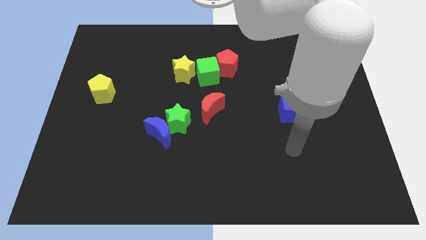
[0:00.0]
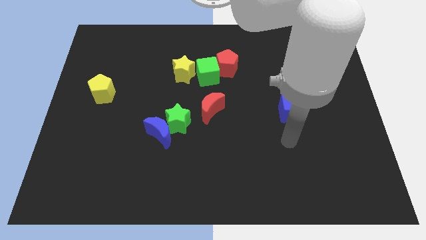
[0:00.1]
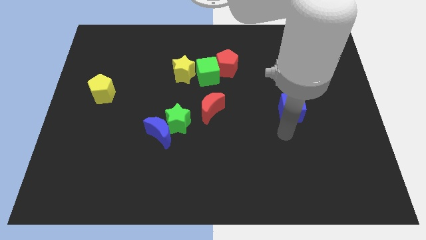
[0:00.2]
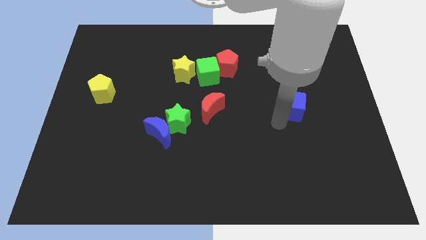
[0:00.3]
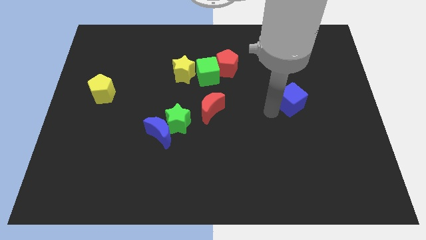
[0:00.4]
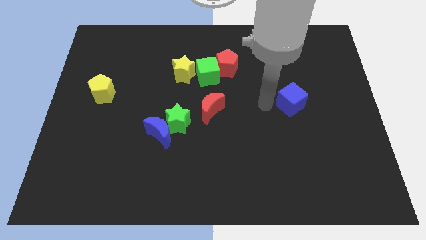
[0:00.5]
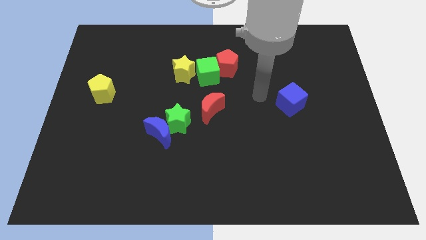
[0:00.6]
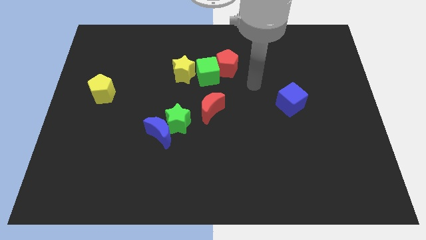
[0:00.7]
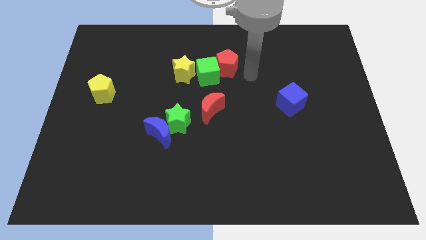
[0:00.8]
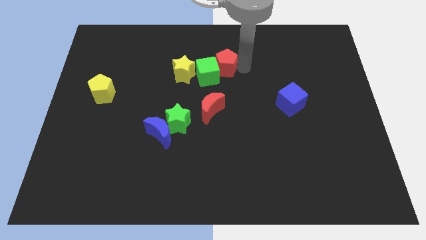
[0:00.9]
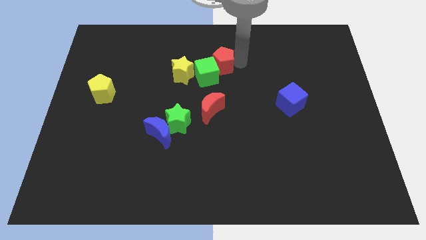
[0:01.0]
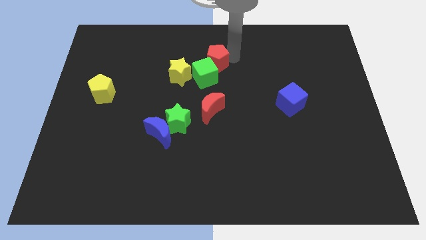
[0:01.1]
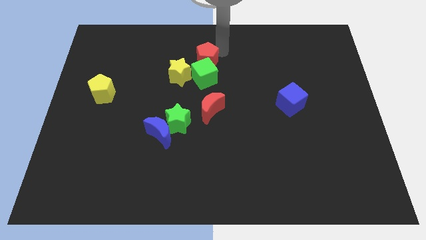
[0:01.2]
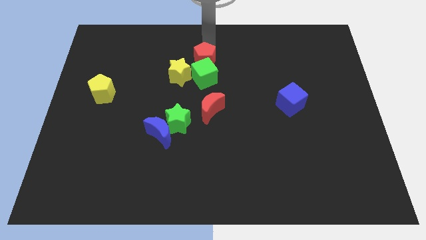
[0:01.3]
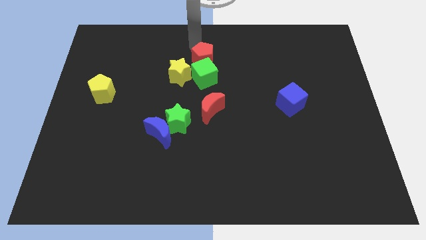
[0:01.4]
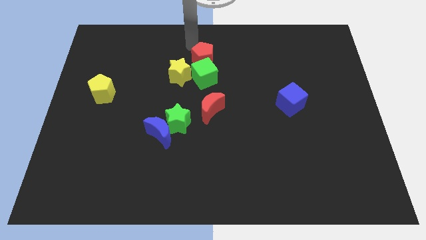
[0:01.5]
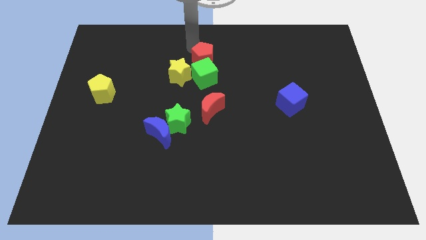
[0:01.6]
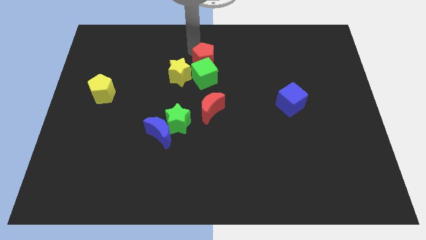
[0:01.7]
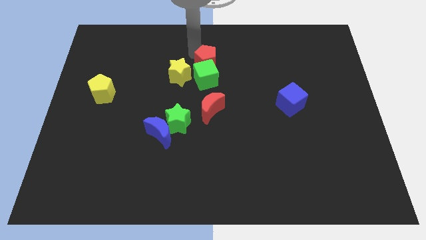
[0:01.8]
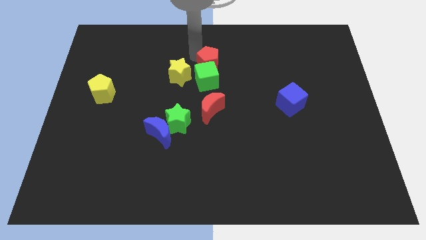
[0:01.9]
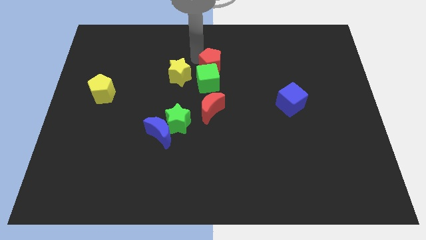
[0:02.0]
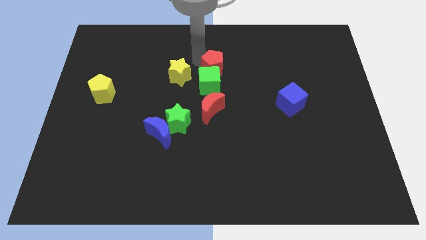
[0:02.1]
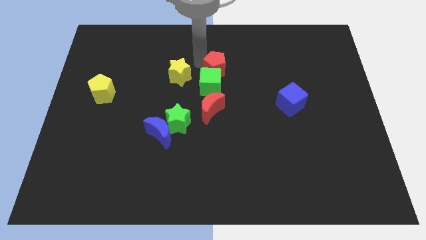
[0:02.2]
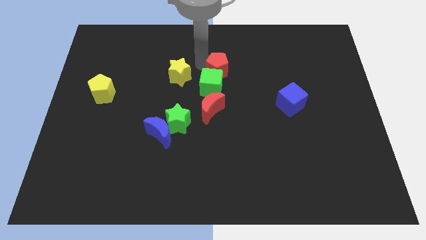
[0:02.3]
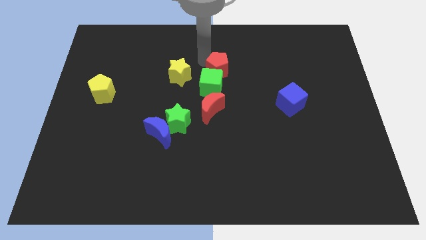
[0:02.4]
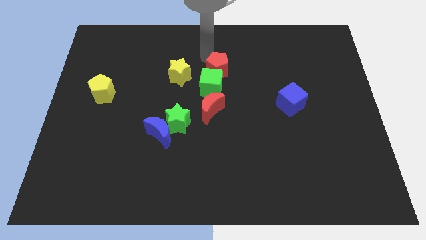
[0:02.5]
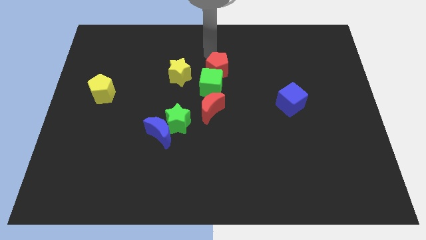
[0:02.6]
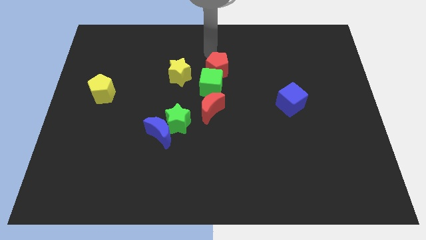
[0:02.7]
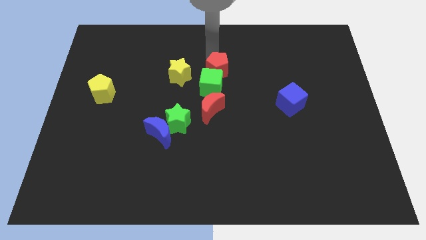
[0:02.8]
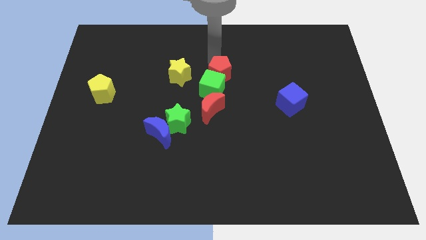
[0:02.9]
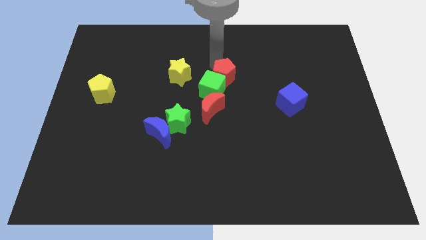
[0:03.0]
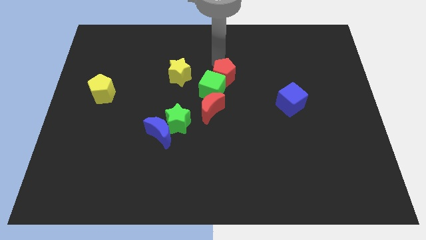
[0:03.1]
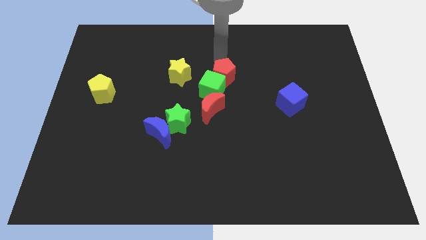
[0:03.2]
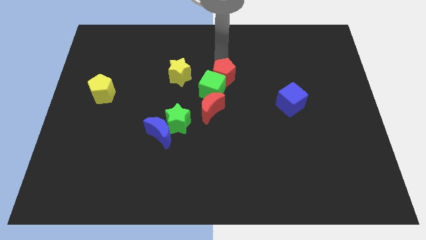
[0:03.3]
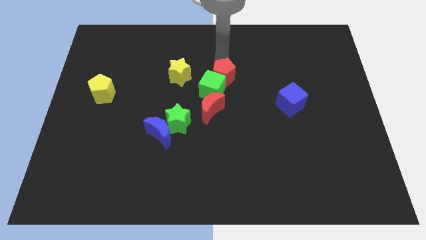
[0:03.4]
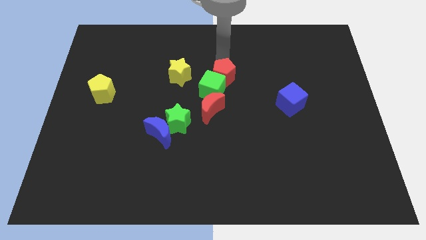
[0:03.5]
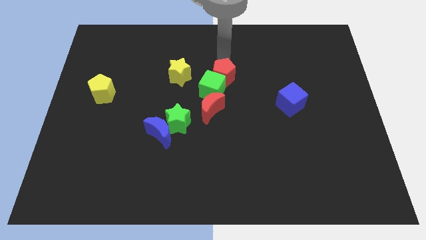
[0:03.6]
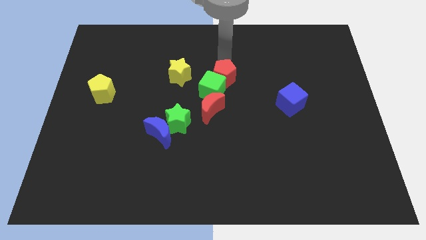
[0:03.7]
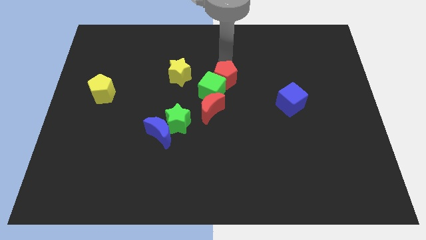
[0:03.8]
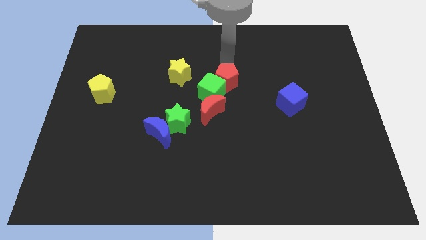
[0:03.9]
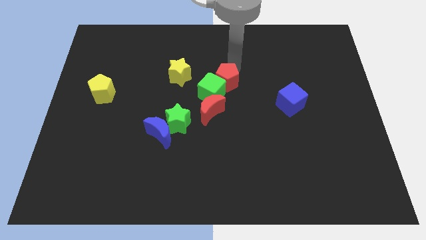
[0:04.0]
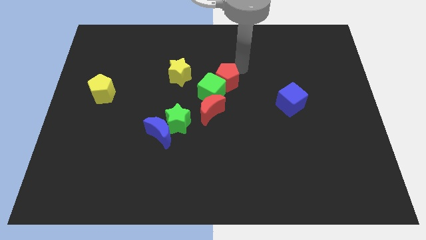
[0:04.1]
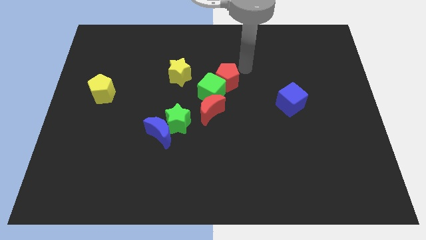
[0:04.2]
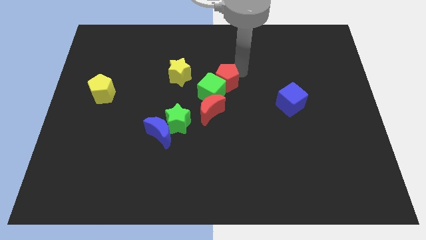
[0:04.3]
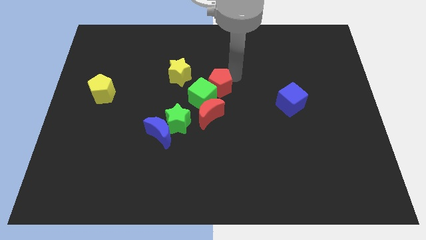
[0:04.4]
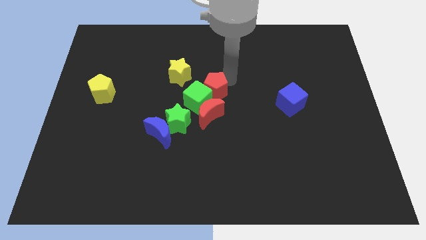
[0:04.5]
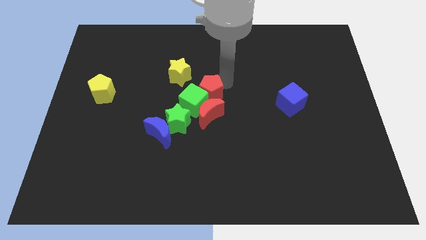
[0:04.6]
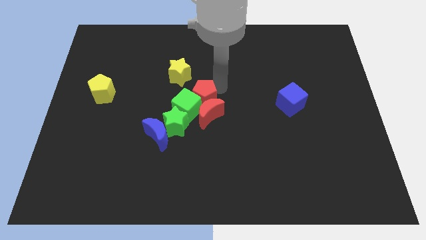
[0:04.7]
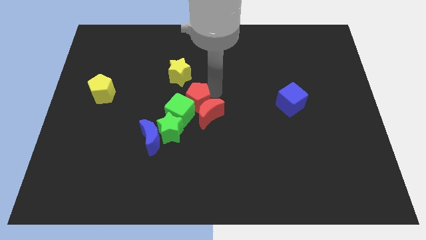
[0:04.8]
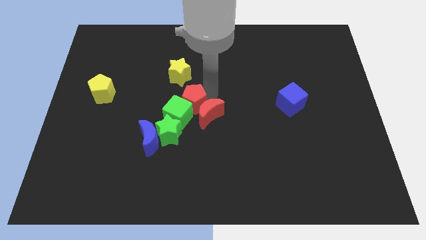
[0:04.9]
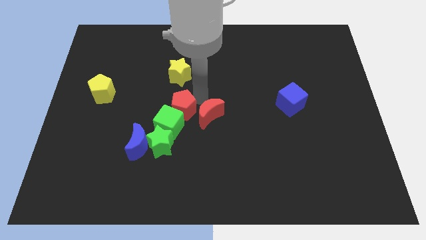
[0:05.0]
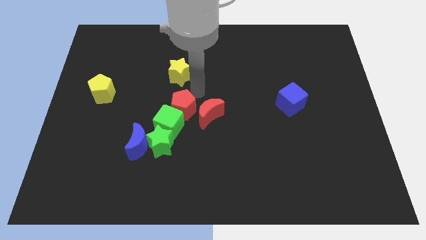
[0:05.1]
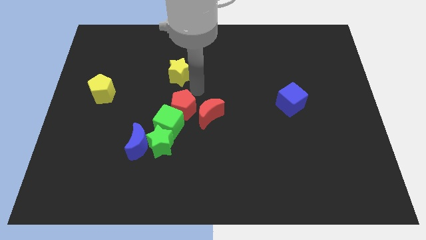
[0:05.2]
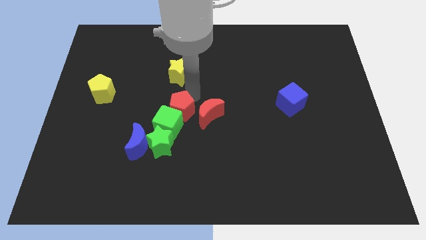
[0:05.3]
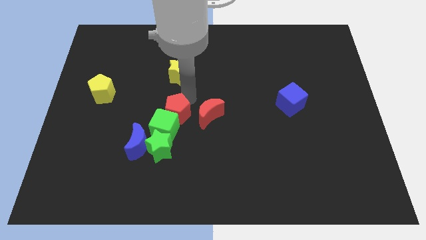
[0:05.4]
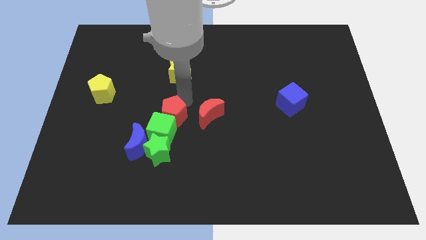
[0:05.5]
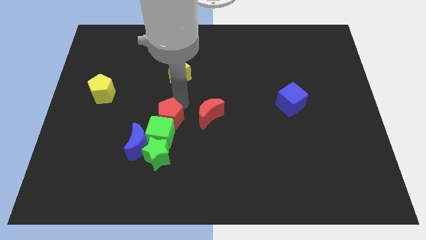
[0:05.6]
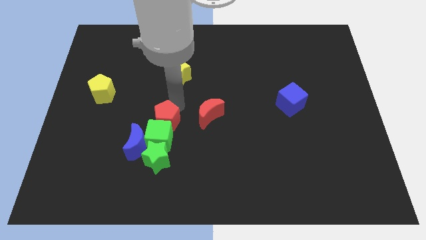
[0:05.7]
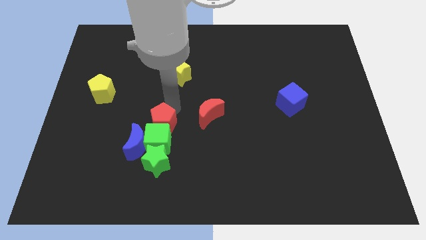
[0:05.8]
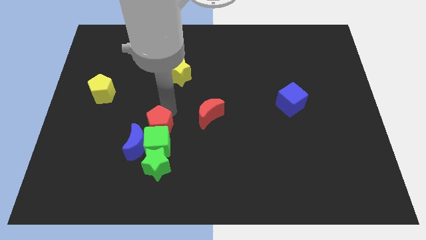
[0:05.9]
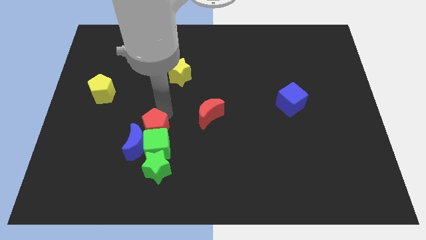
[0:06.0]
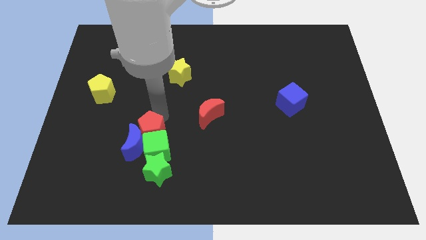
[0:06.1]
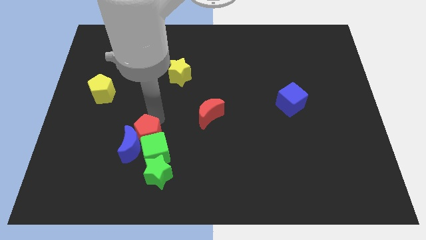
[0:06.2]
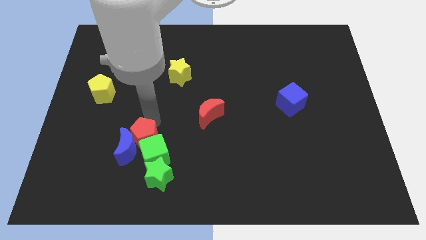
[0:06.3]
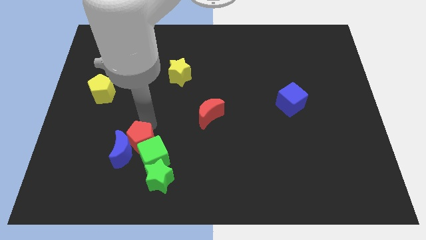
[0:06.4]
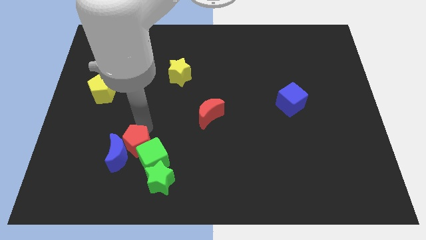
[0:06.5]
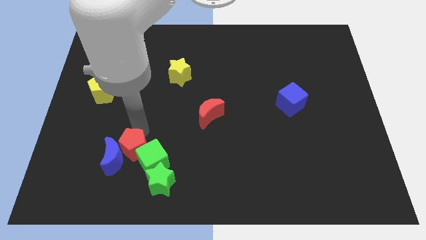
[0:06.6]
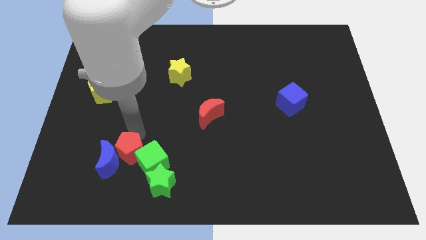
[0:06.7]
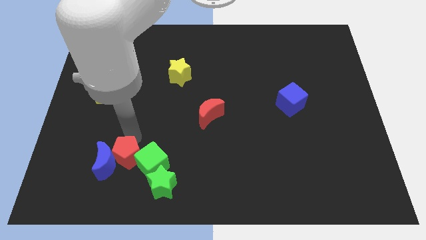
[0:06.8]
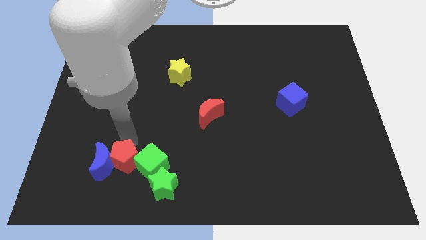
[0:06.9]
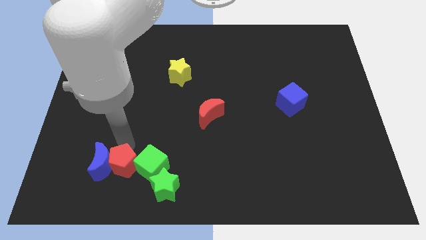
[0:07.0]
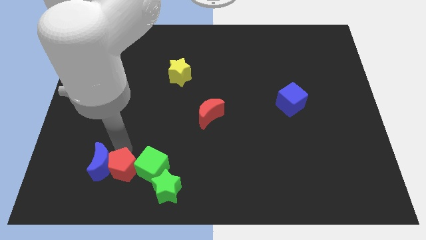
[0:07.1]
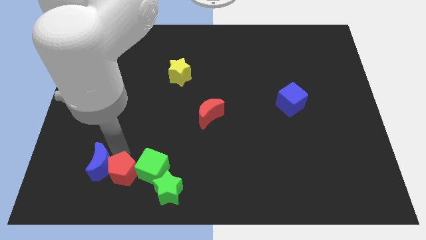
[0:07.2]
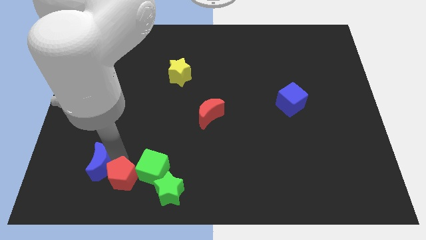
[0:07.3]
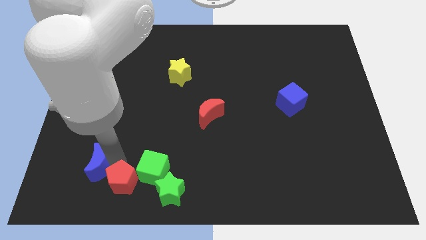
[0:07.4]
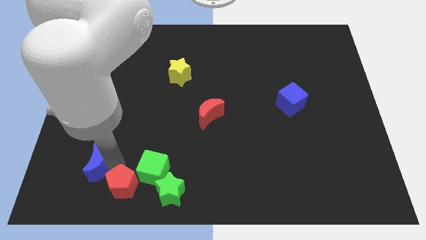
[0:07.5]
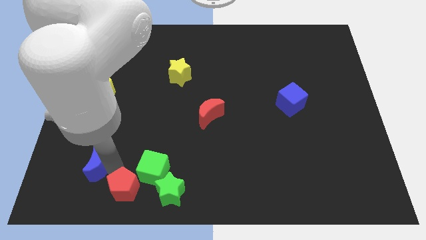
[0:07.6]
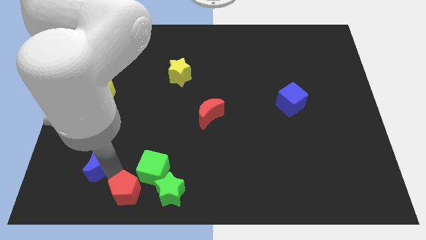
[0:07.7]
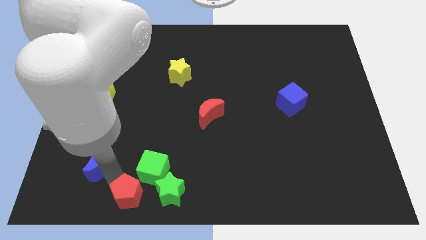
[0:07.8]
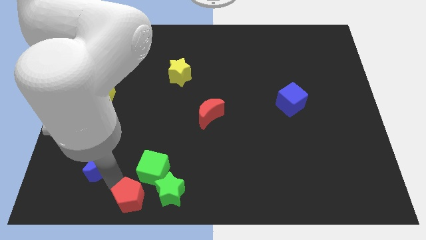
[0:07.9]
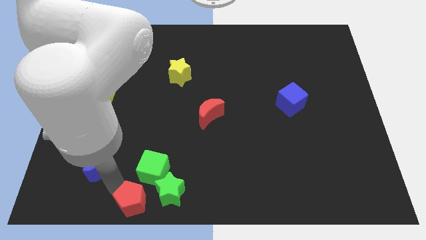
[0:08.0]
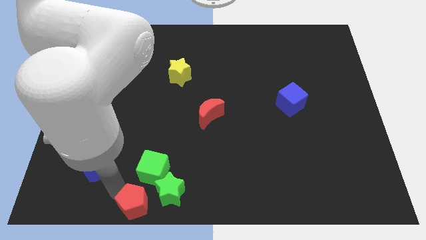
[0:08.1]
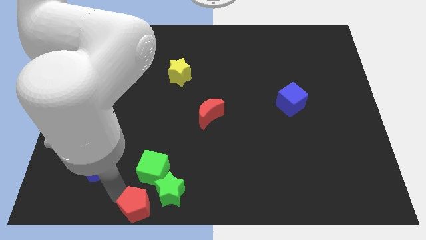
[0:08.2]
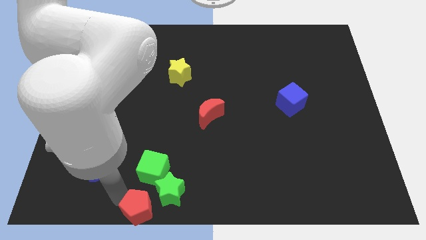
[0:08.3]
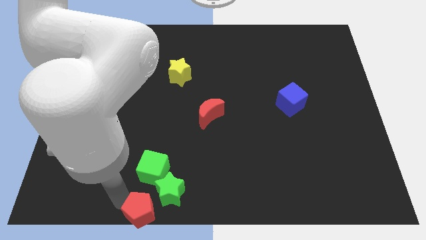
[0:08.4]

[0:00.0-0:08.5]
move the red pentagon towards the green star
